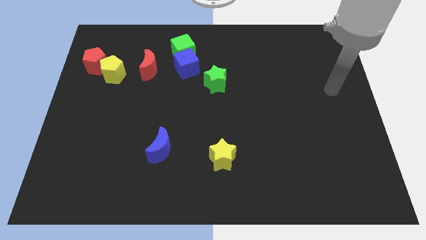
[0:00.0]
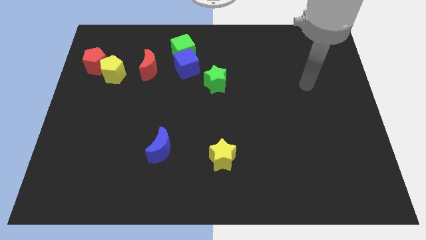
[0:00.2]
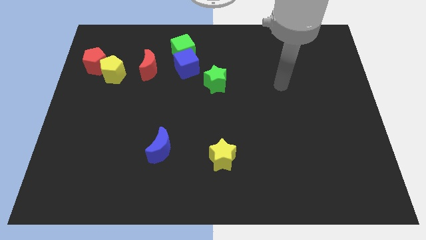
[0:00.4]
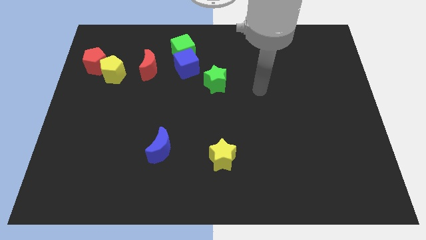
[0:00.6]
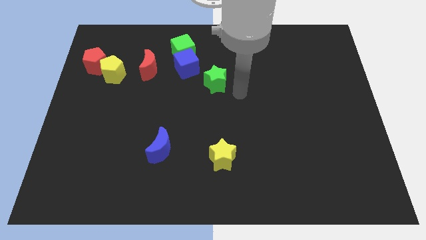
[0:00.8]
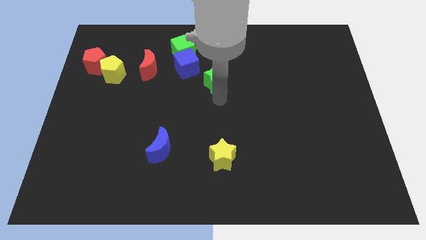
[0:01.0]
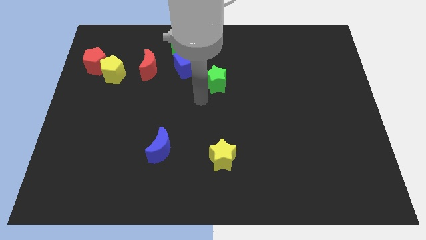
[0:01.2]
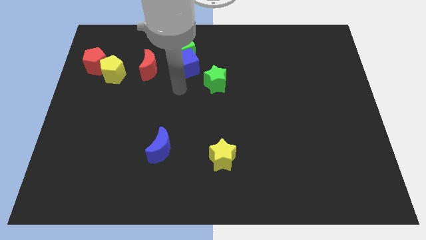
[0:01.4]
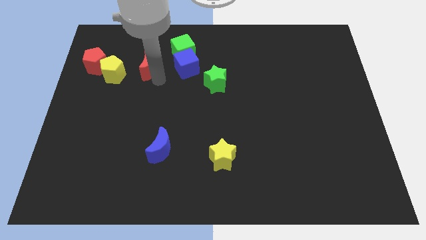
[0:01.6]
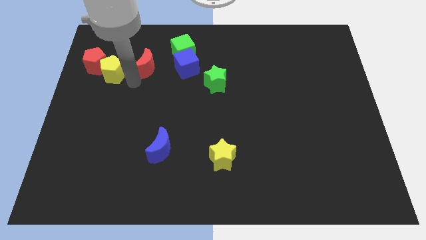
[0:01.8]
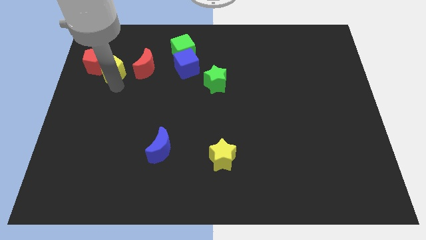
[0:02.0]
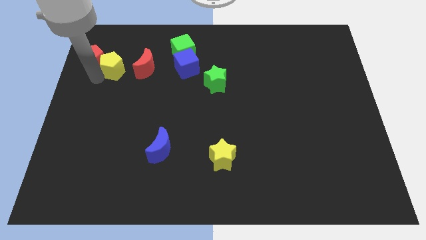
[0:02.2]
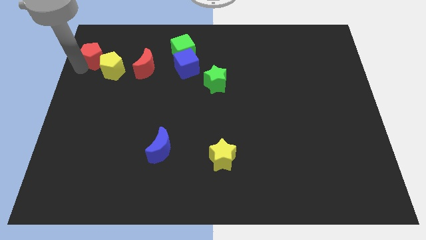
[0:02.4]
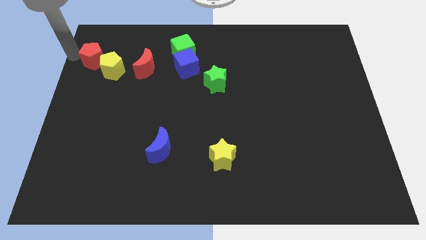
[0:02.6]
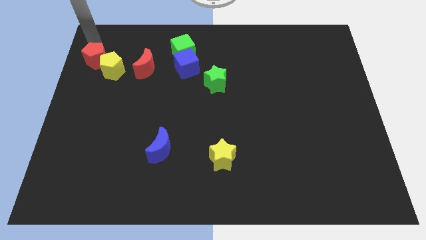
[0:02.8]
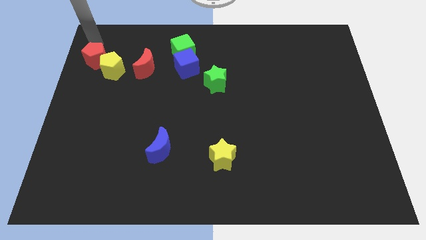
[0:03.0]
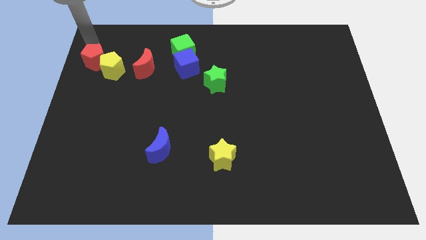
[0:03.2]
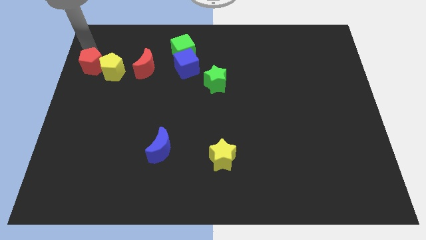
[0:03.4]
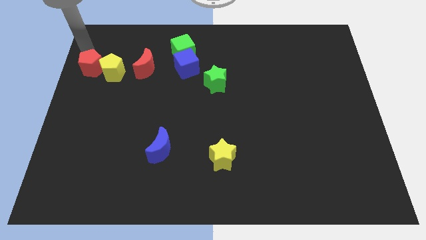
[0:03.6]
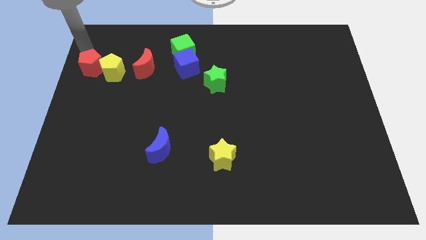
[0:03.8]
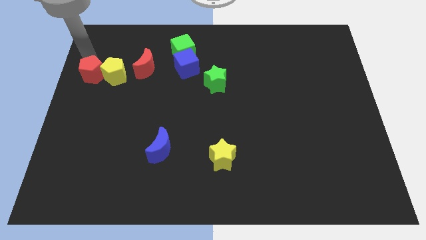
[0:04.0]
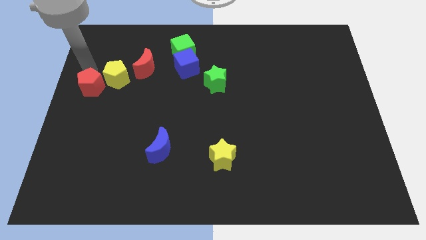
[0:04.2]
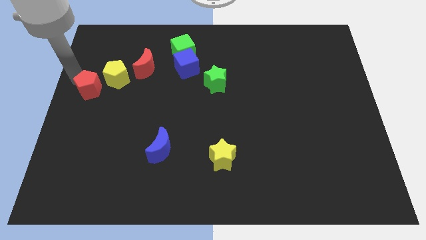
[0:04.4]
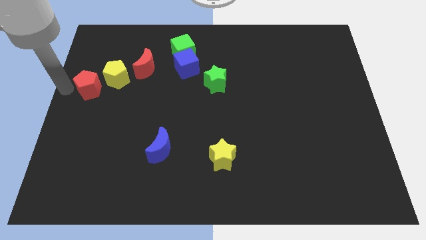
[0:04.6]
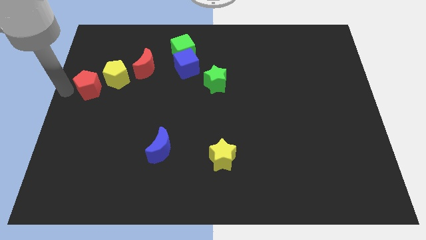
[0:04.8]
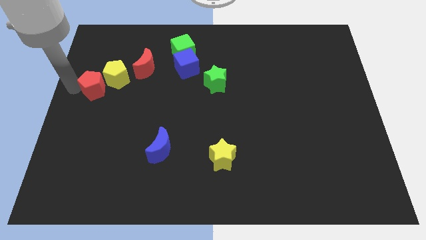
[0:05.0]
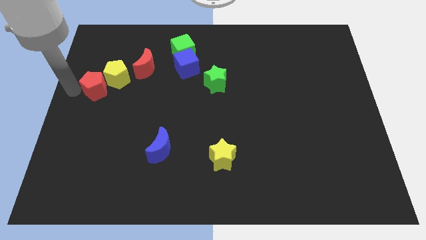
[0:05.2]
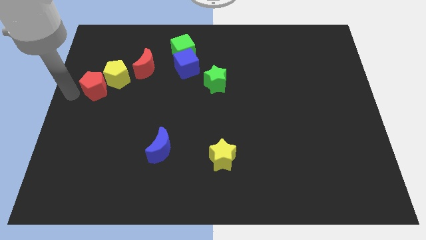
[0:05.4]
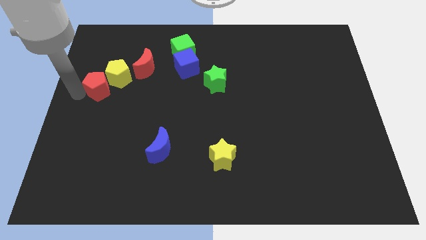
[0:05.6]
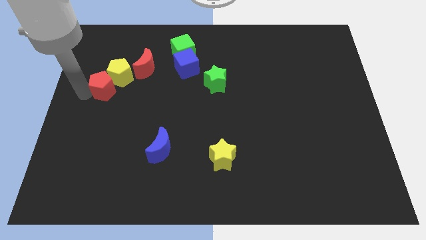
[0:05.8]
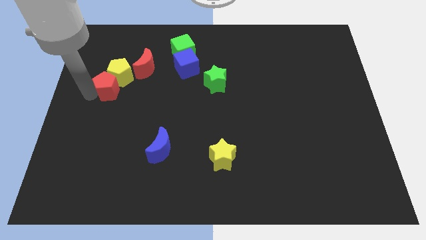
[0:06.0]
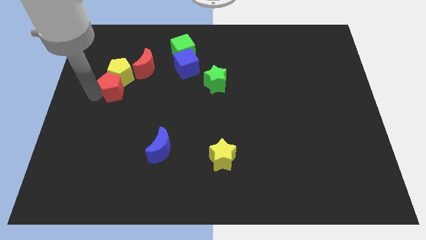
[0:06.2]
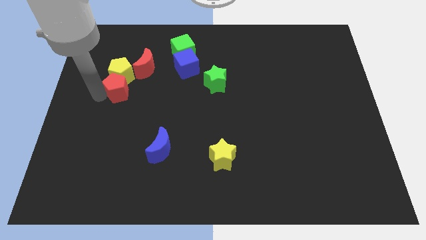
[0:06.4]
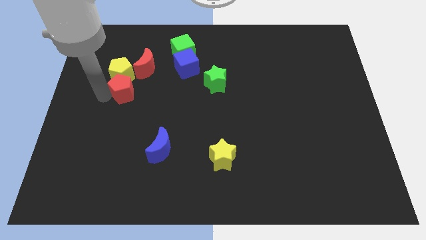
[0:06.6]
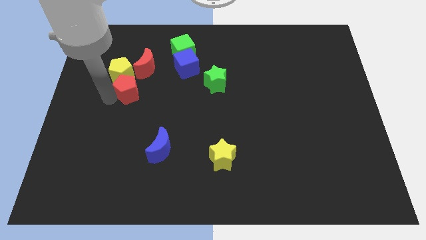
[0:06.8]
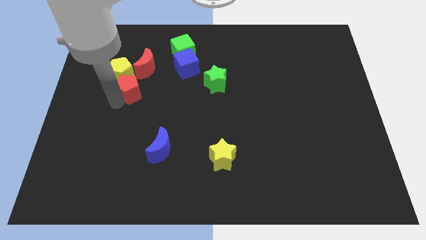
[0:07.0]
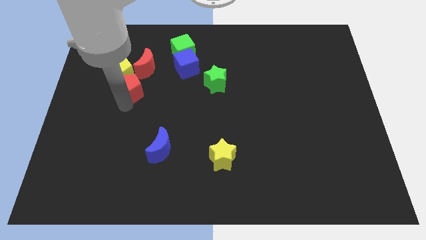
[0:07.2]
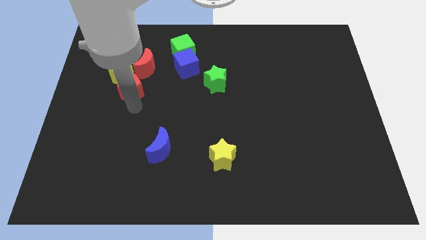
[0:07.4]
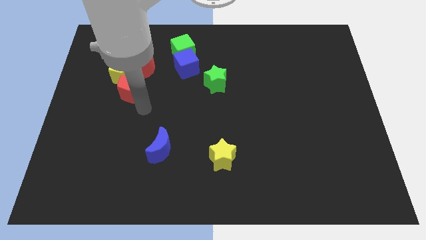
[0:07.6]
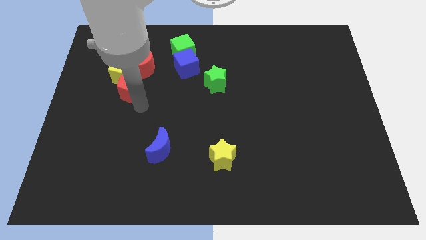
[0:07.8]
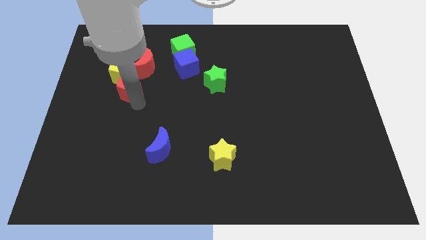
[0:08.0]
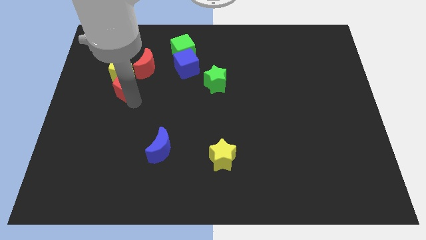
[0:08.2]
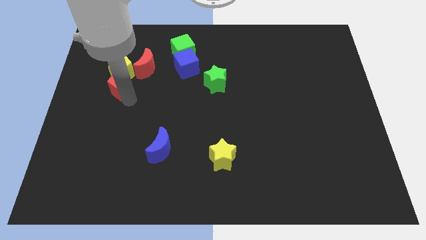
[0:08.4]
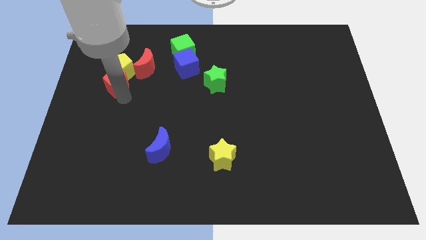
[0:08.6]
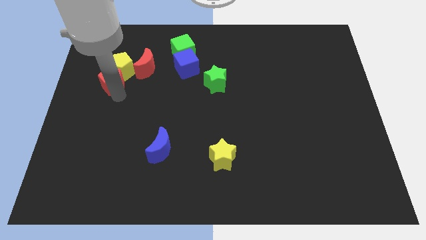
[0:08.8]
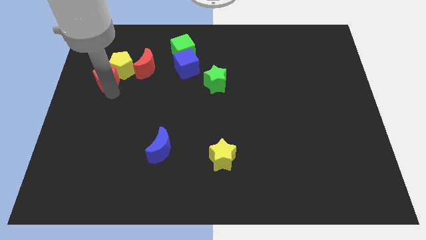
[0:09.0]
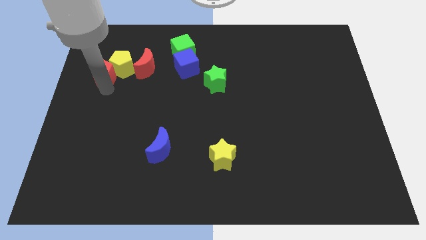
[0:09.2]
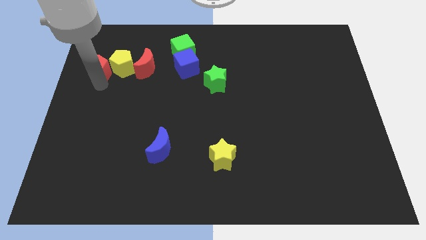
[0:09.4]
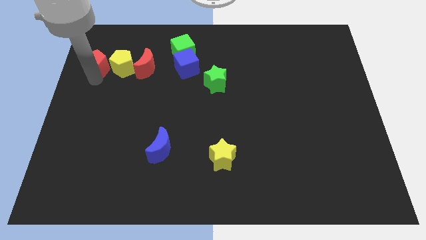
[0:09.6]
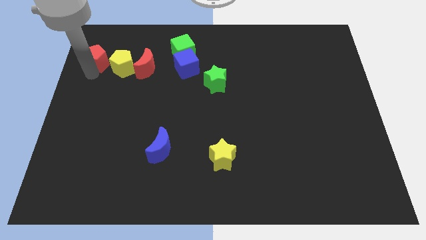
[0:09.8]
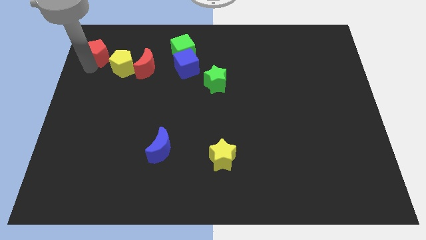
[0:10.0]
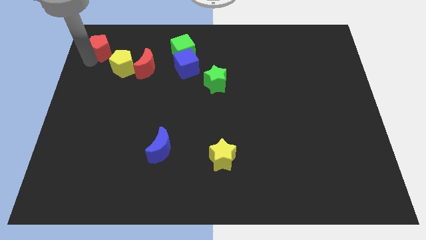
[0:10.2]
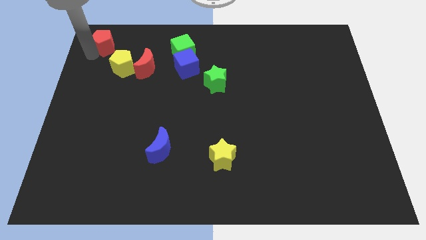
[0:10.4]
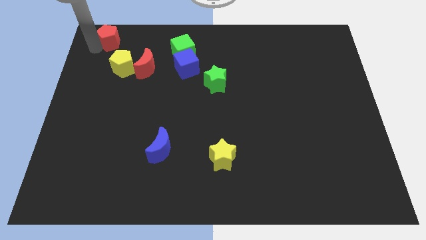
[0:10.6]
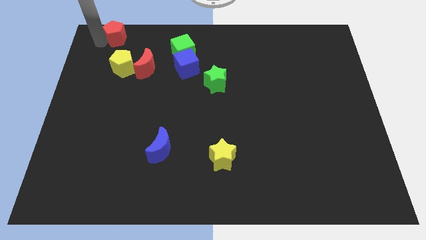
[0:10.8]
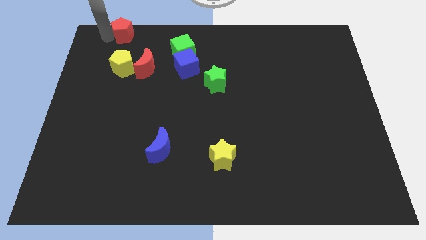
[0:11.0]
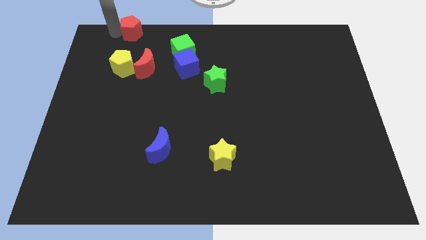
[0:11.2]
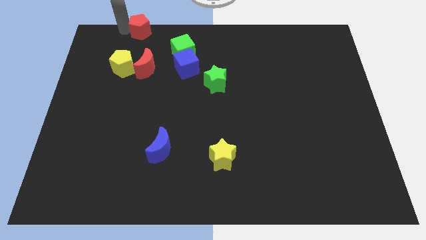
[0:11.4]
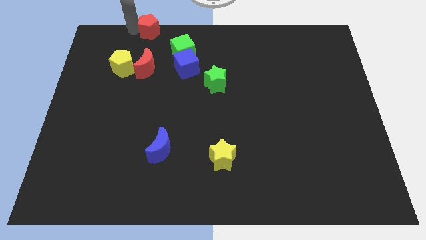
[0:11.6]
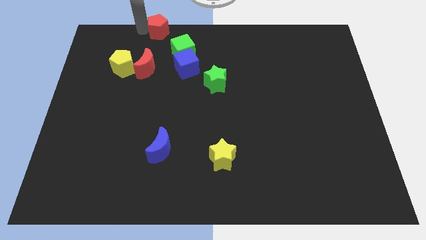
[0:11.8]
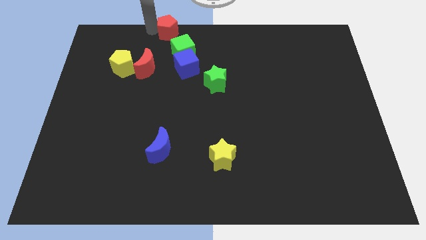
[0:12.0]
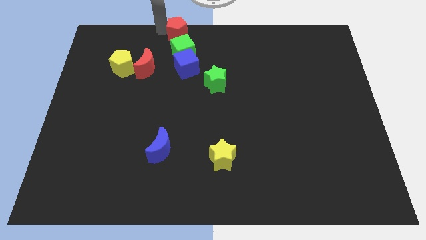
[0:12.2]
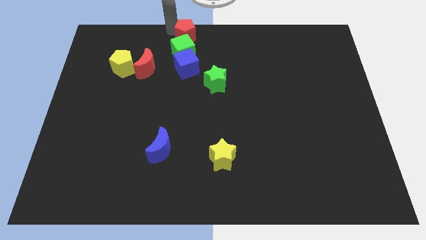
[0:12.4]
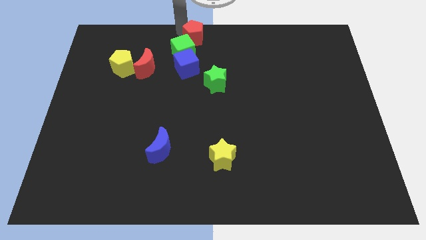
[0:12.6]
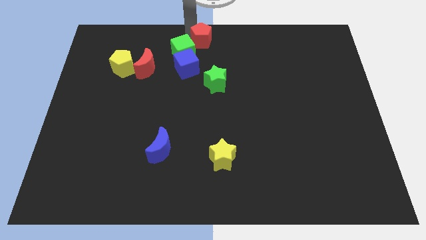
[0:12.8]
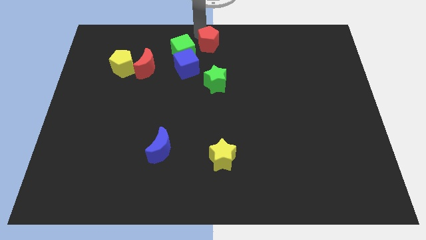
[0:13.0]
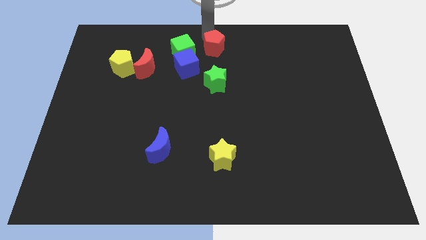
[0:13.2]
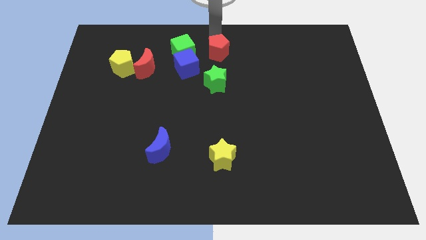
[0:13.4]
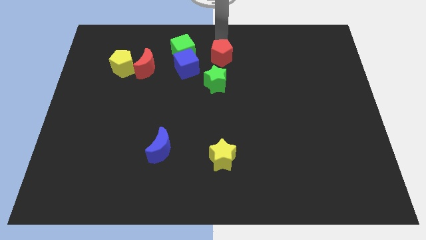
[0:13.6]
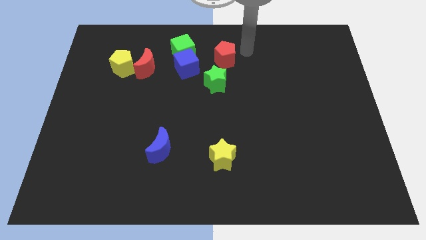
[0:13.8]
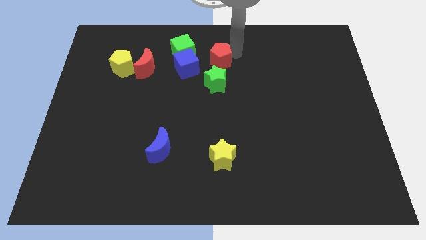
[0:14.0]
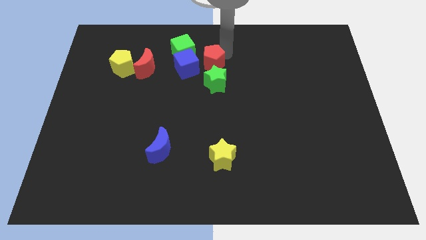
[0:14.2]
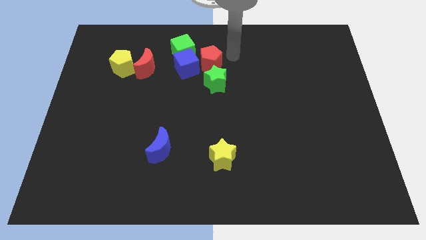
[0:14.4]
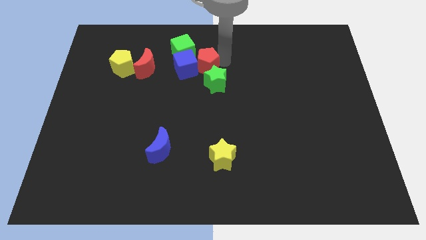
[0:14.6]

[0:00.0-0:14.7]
slide the red pentagon just right of the red moon
